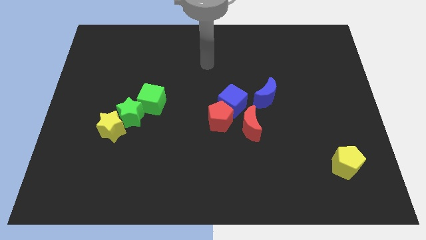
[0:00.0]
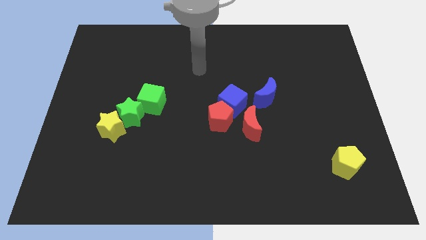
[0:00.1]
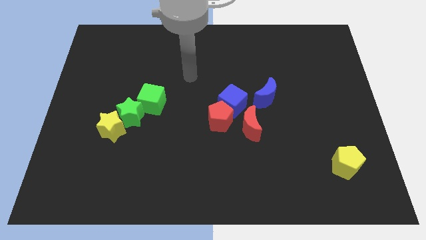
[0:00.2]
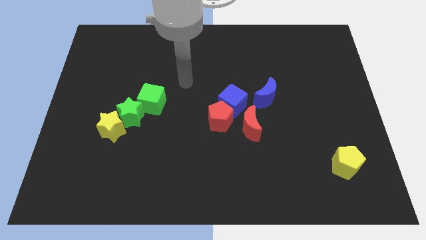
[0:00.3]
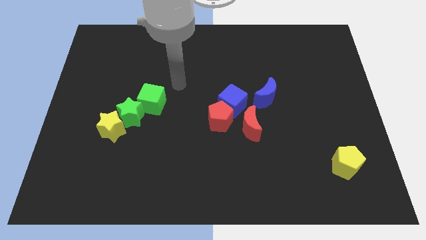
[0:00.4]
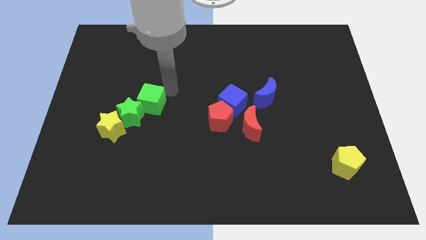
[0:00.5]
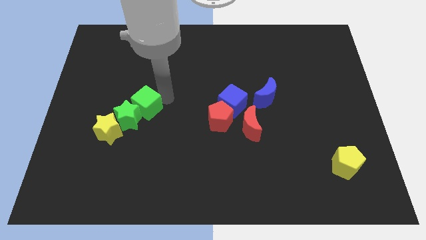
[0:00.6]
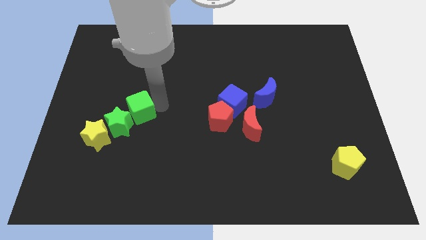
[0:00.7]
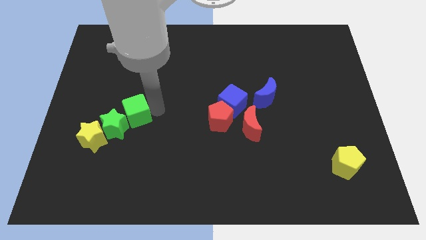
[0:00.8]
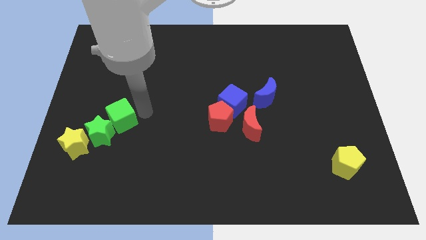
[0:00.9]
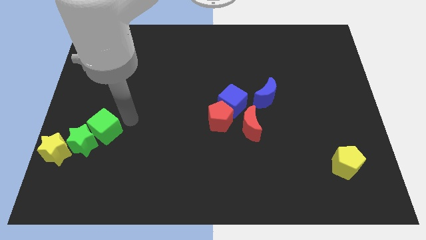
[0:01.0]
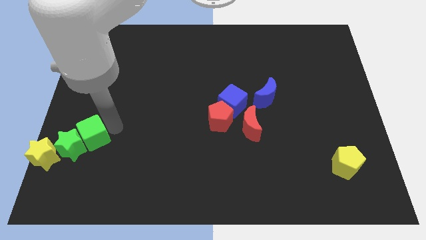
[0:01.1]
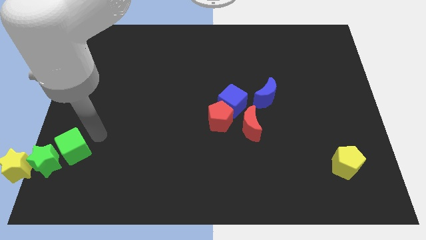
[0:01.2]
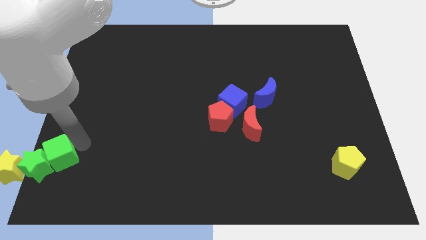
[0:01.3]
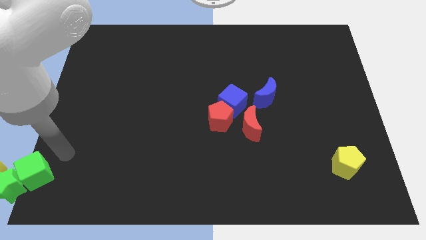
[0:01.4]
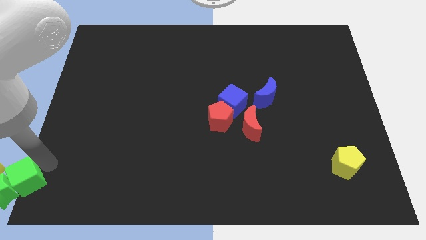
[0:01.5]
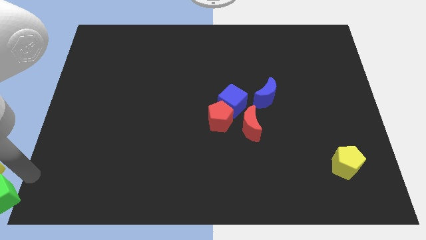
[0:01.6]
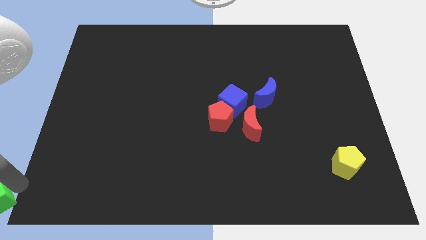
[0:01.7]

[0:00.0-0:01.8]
separate the yellow star from the green star

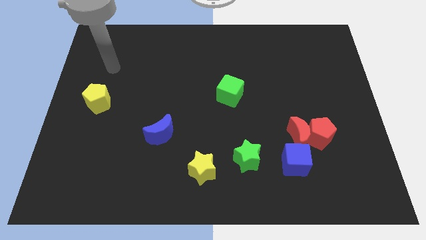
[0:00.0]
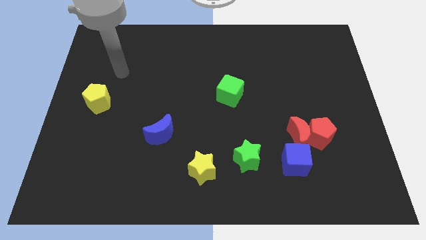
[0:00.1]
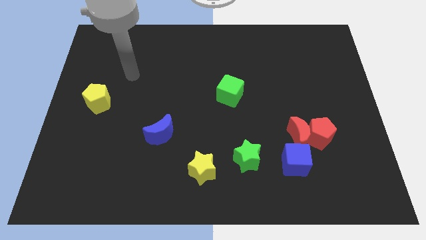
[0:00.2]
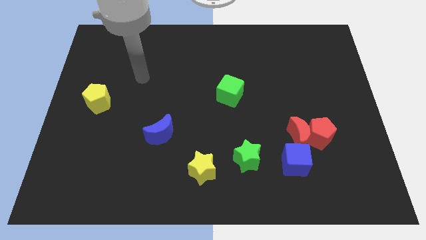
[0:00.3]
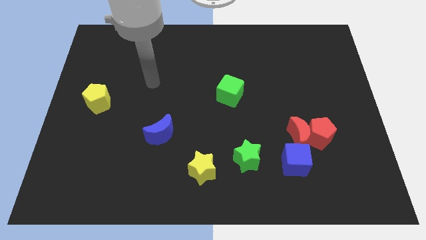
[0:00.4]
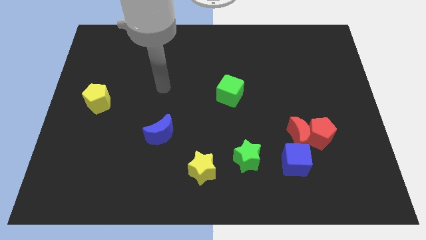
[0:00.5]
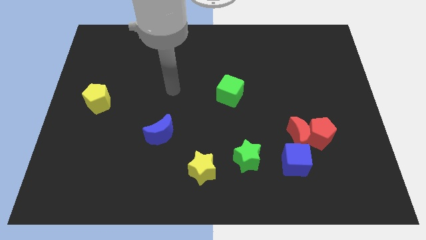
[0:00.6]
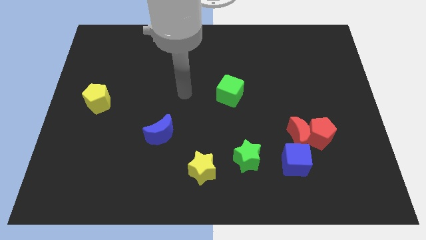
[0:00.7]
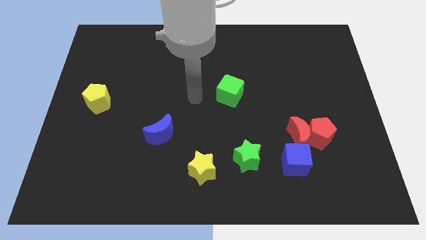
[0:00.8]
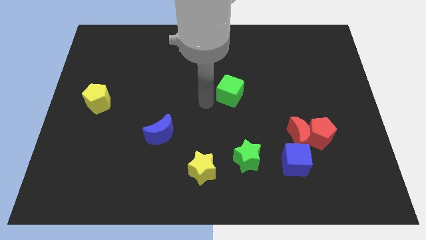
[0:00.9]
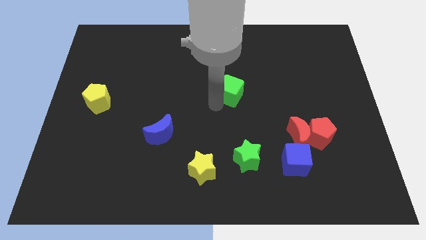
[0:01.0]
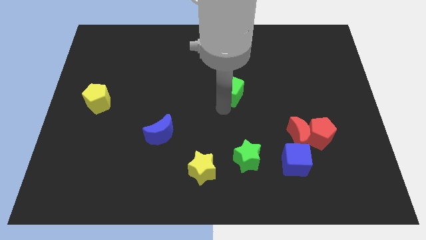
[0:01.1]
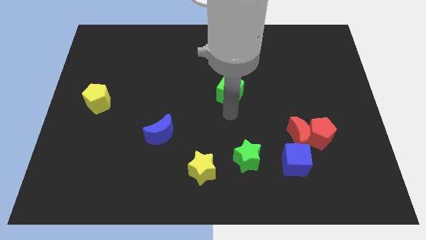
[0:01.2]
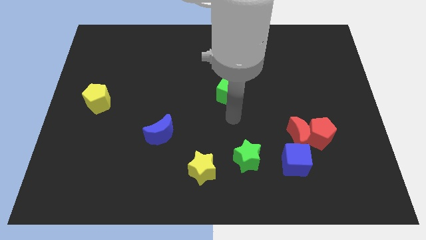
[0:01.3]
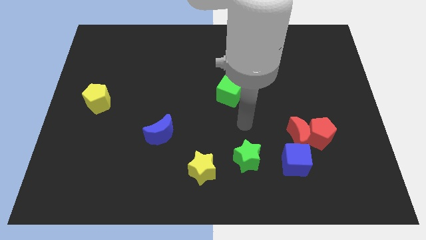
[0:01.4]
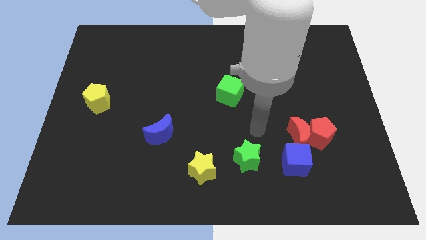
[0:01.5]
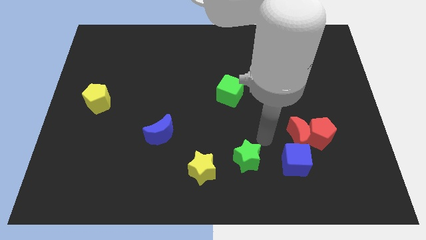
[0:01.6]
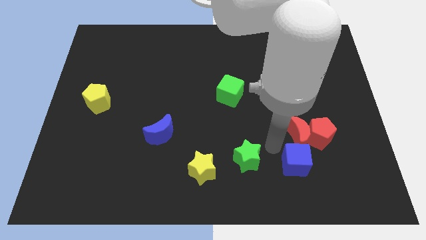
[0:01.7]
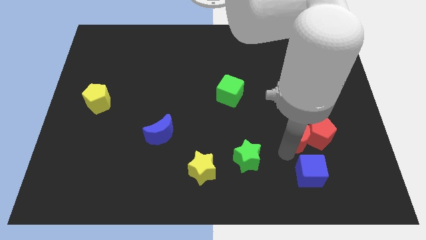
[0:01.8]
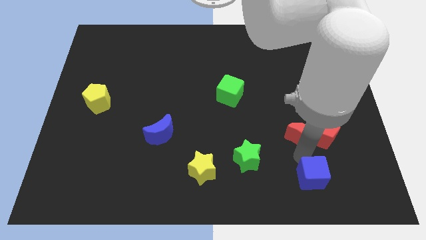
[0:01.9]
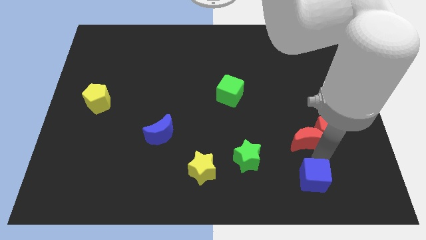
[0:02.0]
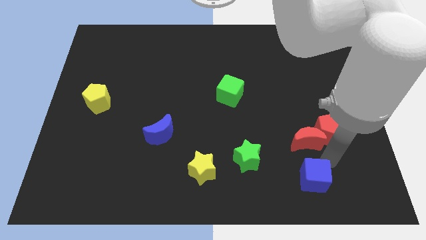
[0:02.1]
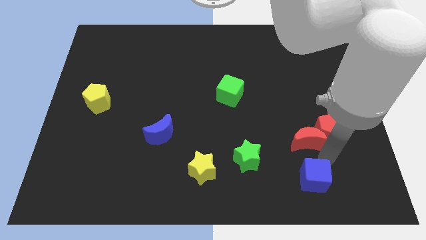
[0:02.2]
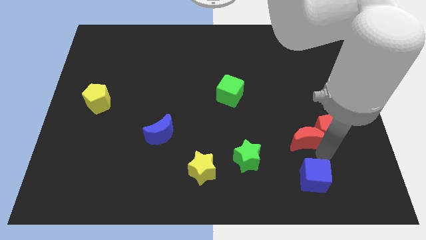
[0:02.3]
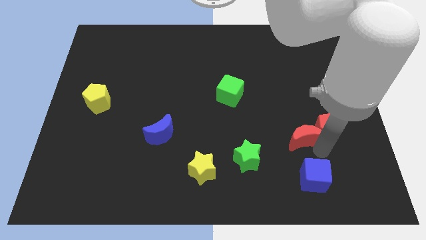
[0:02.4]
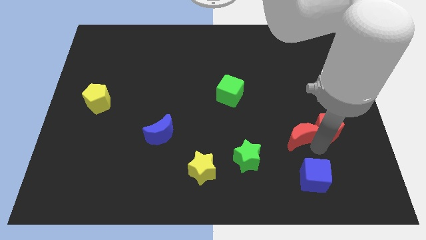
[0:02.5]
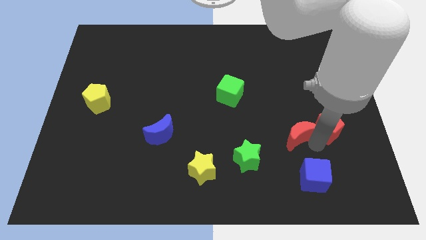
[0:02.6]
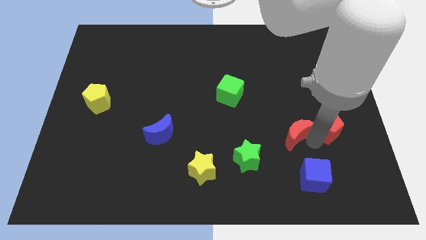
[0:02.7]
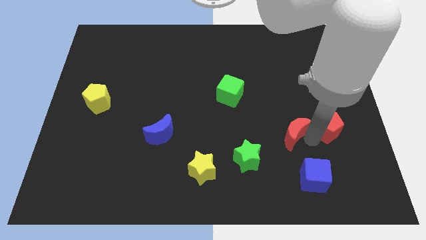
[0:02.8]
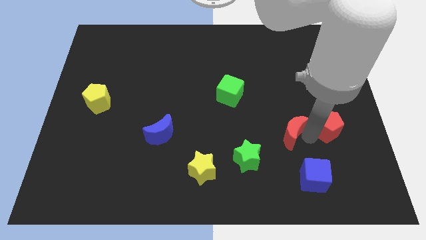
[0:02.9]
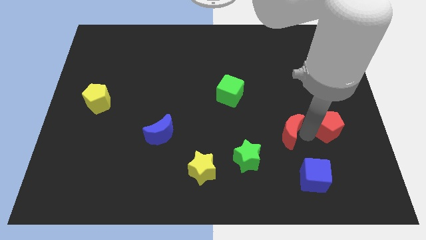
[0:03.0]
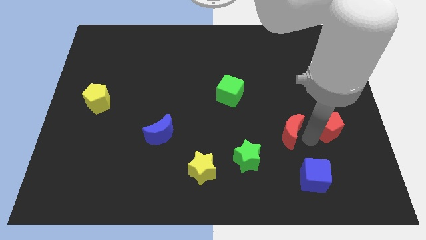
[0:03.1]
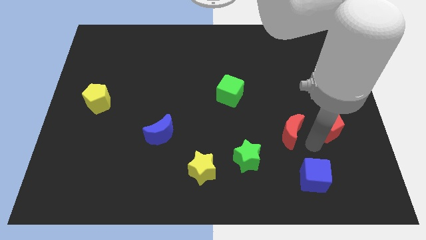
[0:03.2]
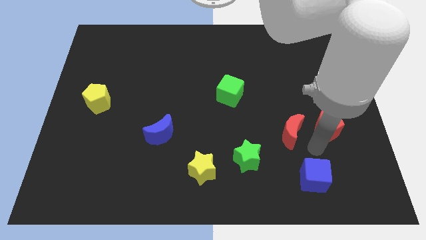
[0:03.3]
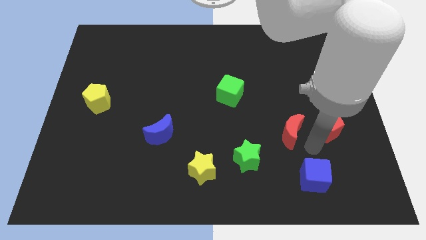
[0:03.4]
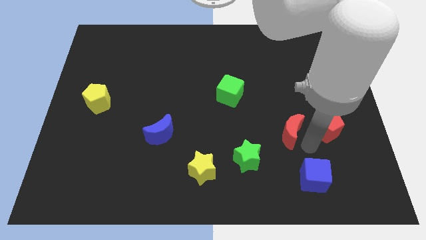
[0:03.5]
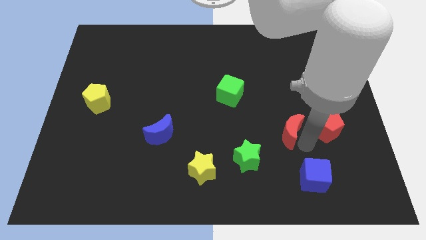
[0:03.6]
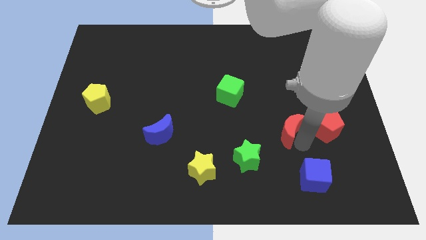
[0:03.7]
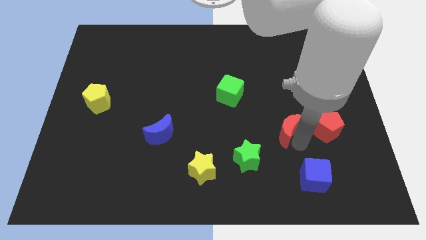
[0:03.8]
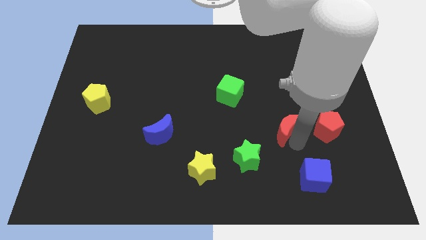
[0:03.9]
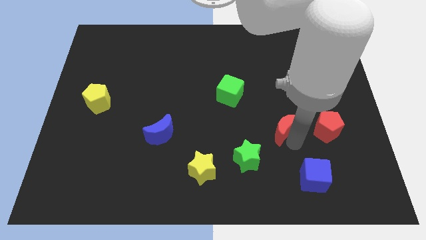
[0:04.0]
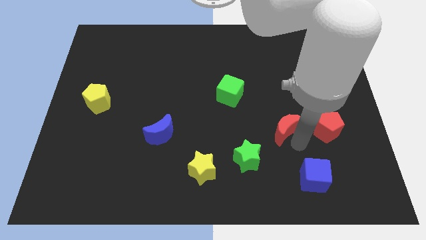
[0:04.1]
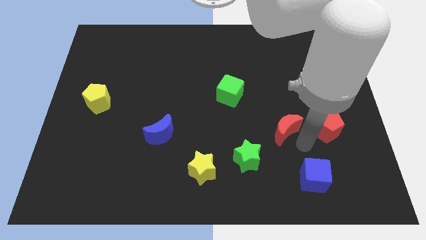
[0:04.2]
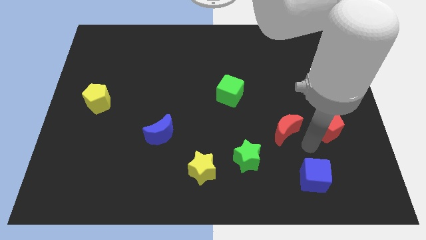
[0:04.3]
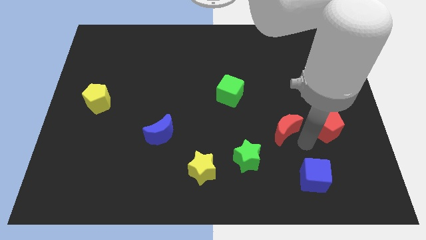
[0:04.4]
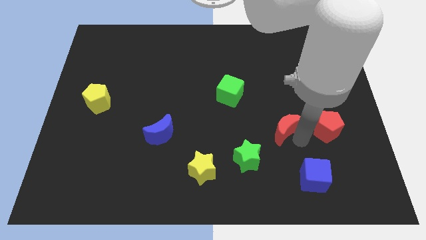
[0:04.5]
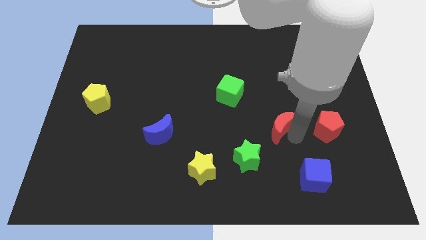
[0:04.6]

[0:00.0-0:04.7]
move the red moon away from the red pentagon and blue cube

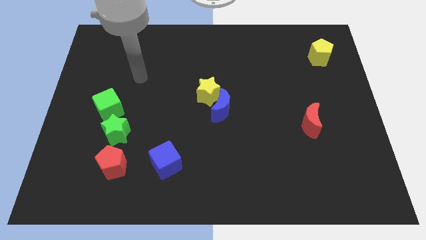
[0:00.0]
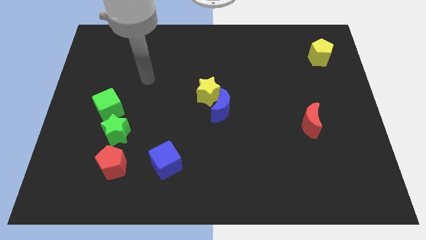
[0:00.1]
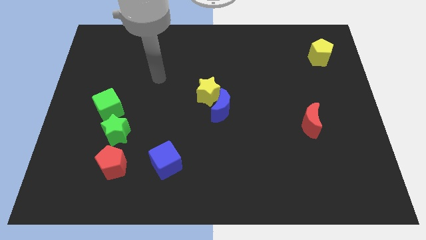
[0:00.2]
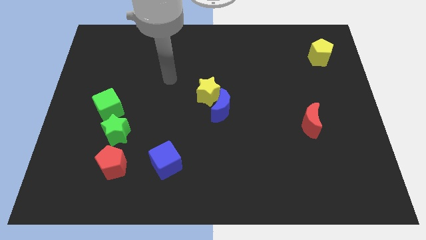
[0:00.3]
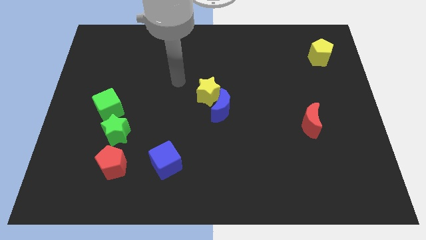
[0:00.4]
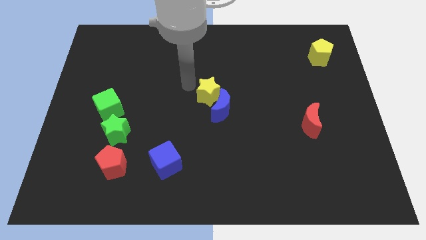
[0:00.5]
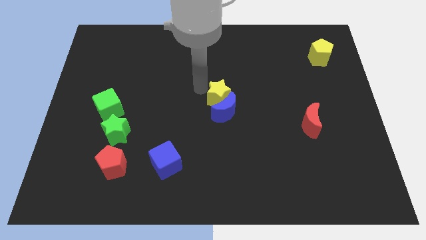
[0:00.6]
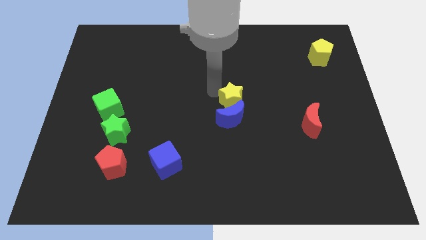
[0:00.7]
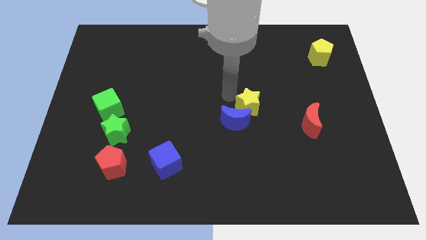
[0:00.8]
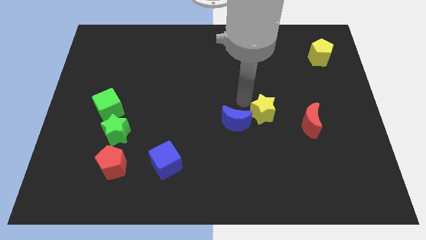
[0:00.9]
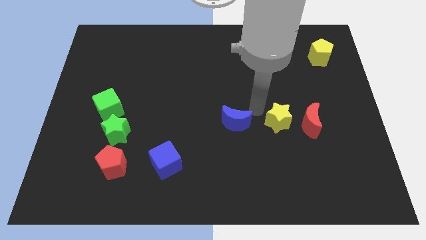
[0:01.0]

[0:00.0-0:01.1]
pull the blue moon apart from the yellow star

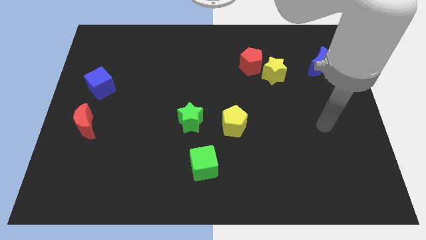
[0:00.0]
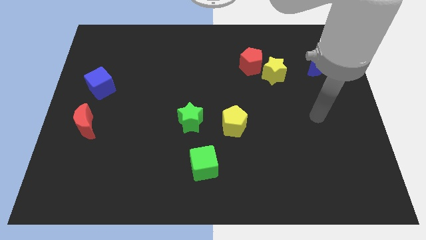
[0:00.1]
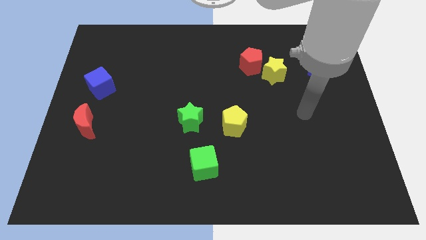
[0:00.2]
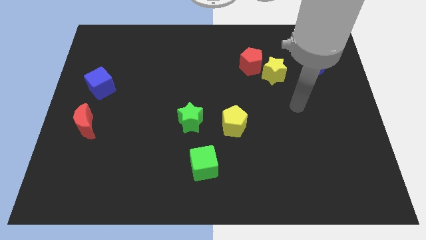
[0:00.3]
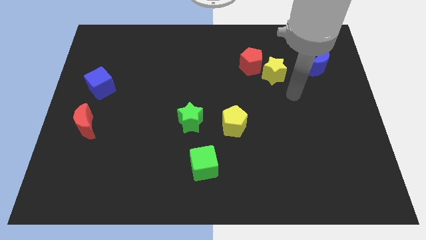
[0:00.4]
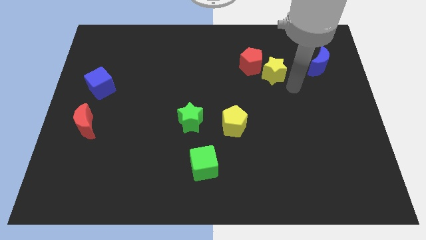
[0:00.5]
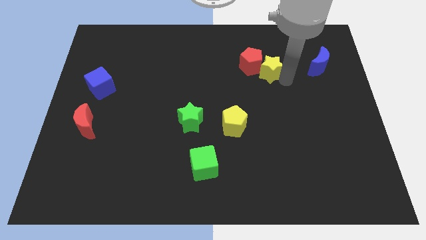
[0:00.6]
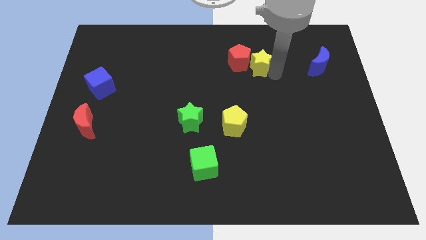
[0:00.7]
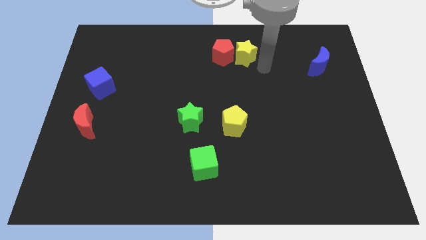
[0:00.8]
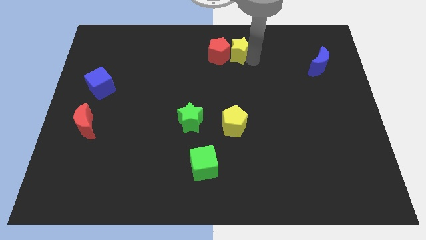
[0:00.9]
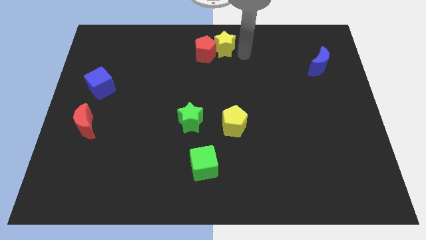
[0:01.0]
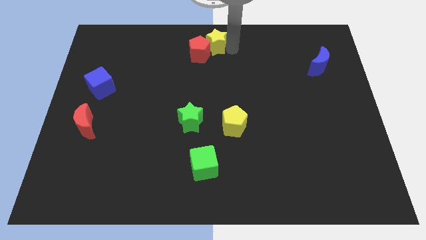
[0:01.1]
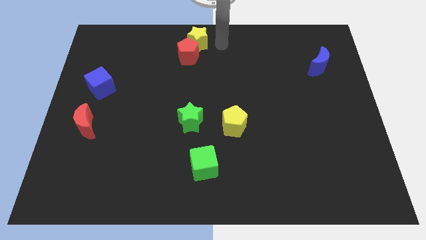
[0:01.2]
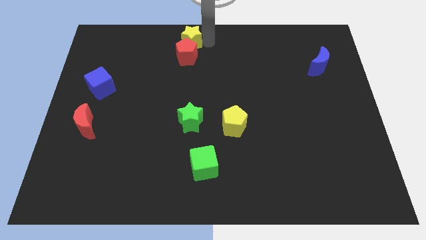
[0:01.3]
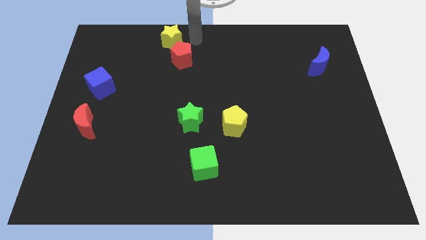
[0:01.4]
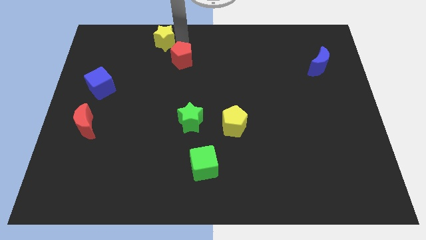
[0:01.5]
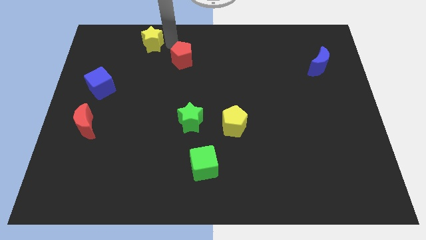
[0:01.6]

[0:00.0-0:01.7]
move the red pentagon away from the yellow star

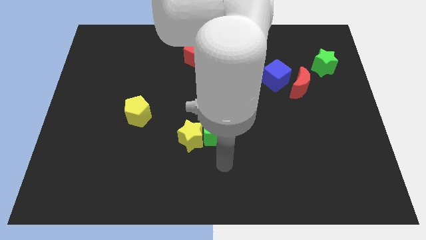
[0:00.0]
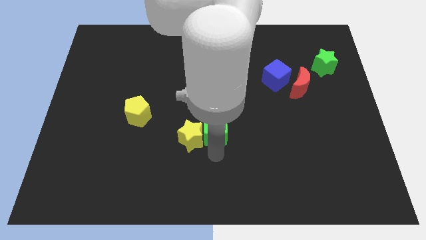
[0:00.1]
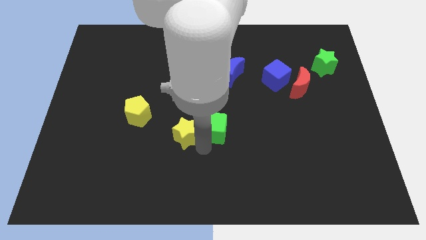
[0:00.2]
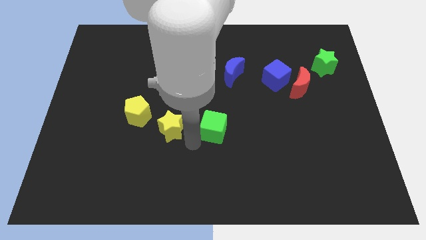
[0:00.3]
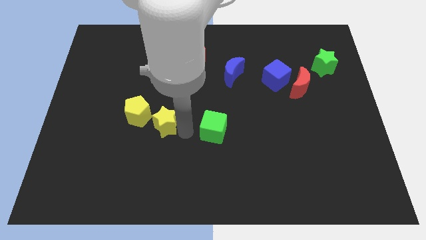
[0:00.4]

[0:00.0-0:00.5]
separate the green cube from the yellow star
